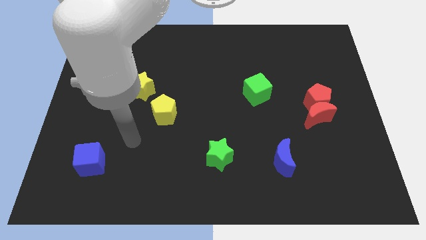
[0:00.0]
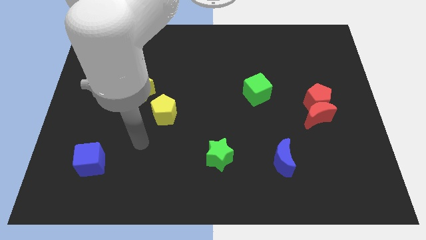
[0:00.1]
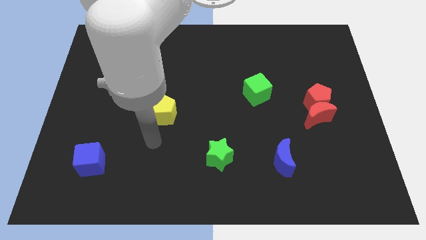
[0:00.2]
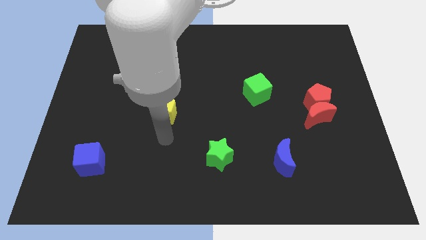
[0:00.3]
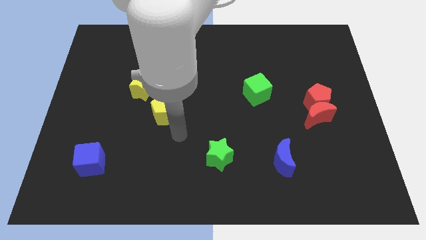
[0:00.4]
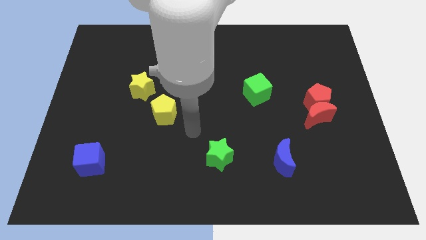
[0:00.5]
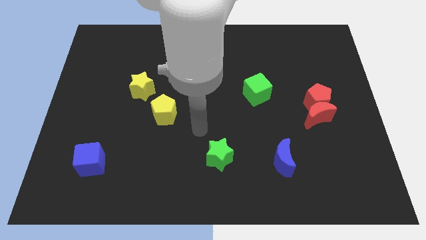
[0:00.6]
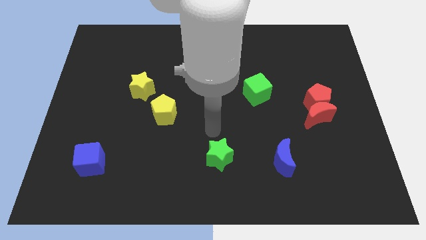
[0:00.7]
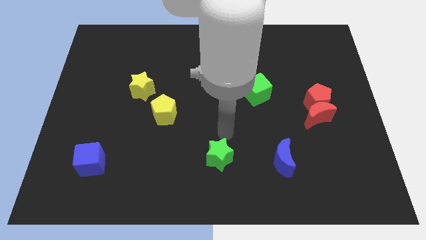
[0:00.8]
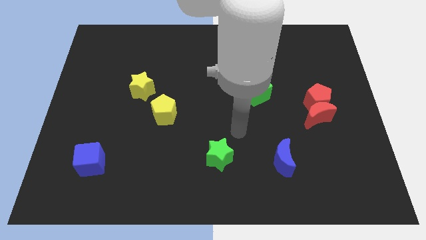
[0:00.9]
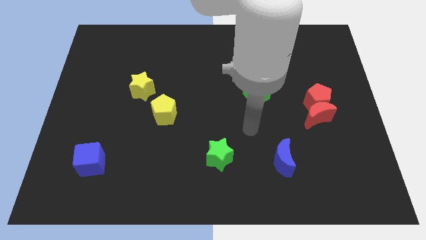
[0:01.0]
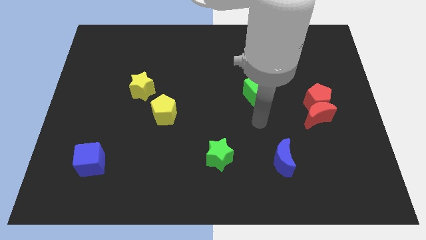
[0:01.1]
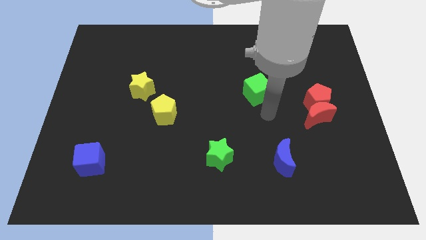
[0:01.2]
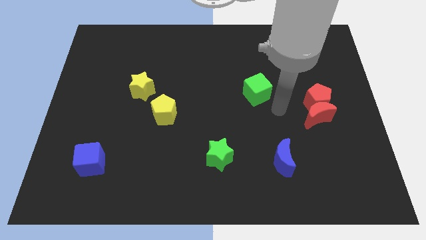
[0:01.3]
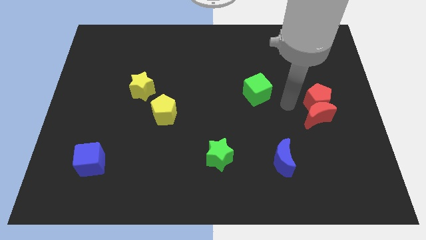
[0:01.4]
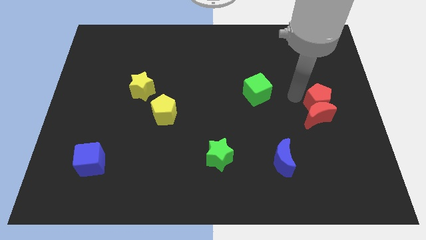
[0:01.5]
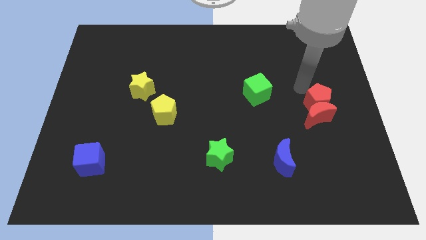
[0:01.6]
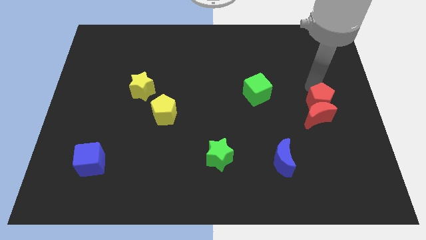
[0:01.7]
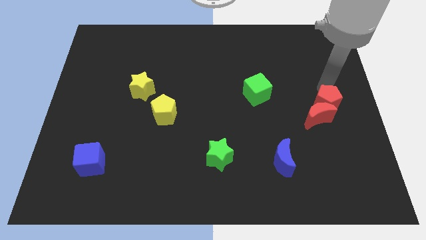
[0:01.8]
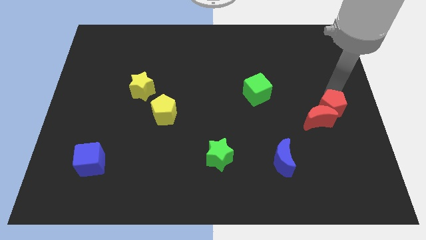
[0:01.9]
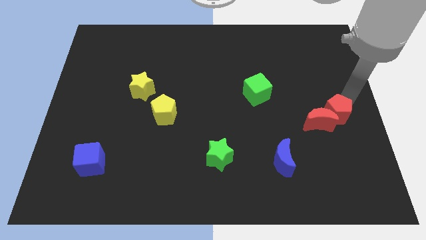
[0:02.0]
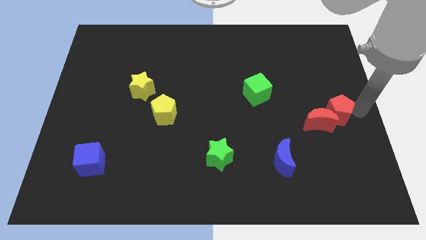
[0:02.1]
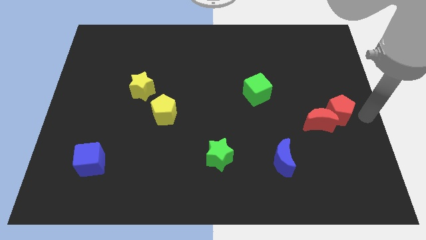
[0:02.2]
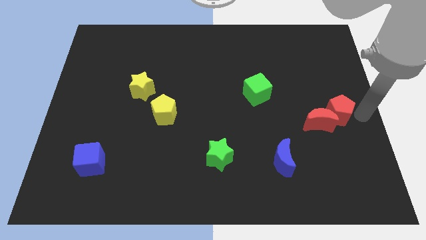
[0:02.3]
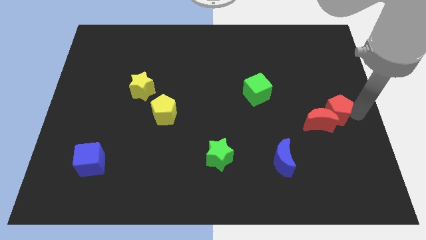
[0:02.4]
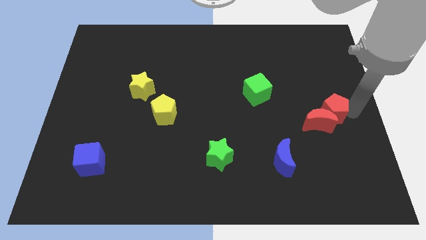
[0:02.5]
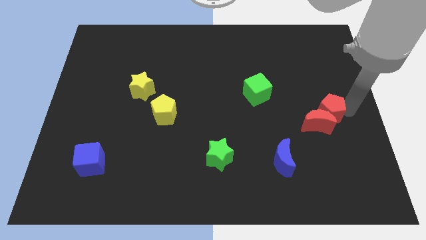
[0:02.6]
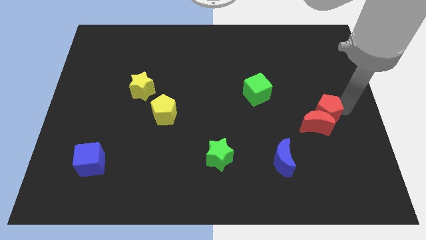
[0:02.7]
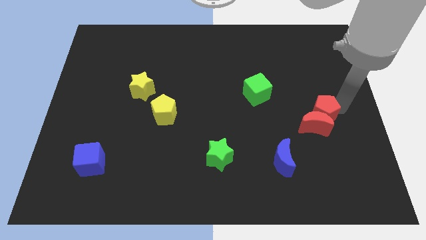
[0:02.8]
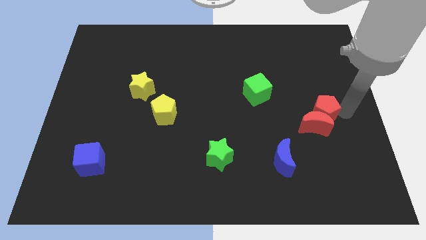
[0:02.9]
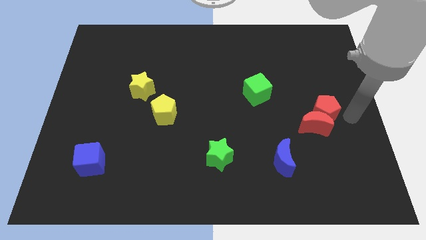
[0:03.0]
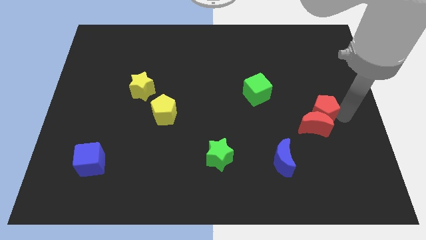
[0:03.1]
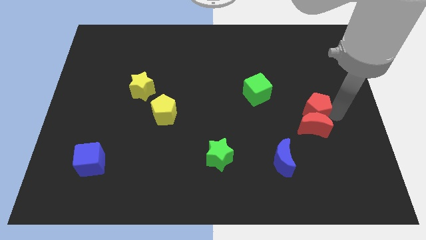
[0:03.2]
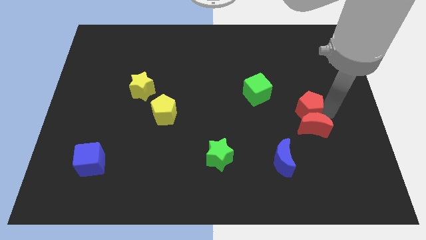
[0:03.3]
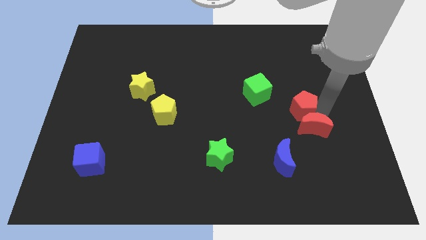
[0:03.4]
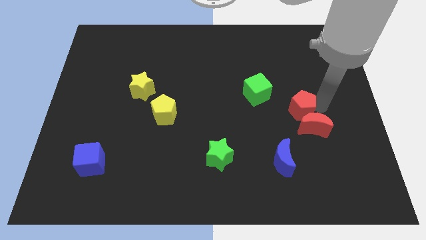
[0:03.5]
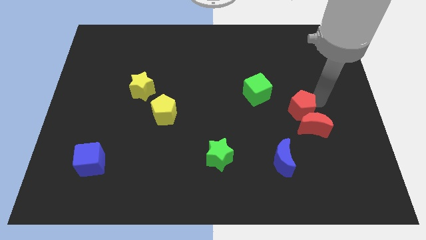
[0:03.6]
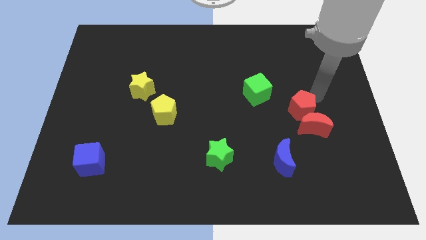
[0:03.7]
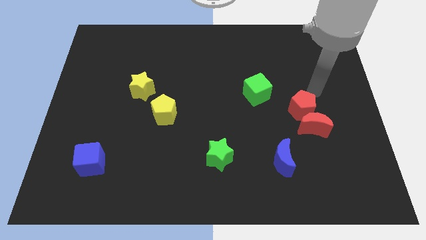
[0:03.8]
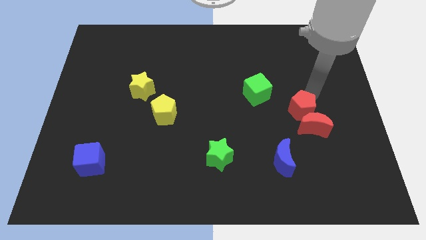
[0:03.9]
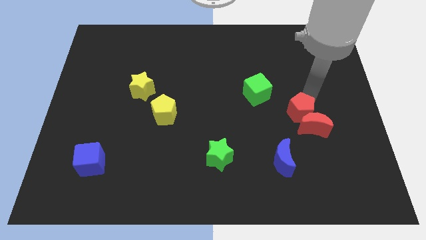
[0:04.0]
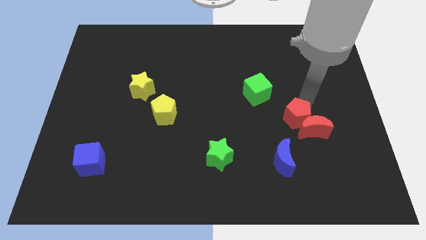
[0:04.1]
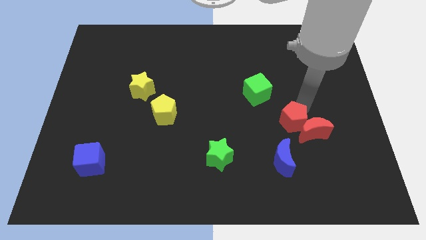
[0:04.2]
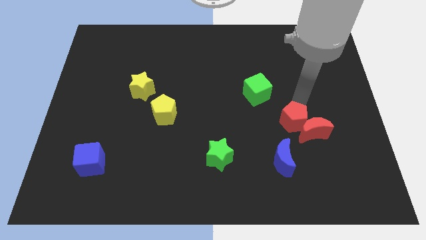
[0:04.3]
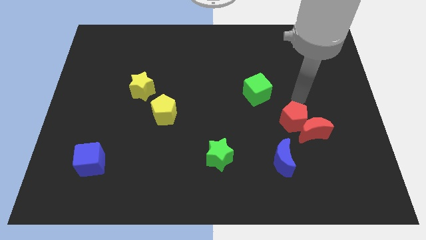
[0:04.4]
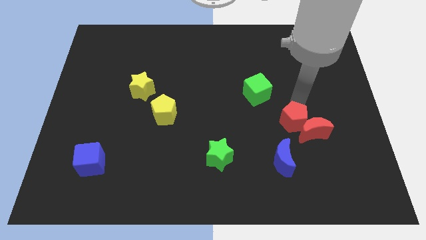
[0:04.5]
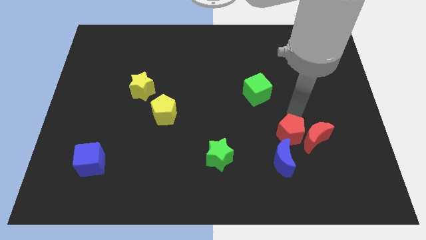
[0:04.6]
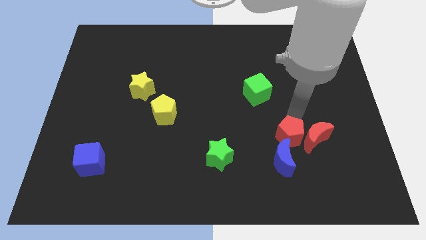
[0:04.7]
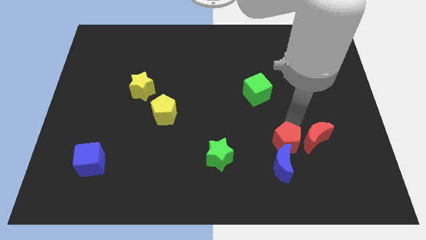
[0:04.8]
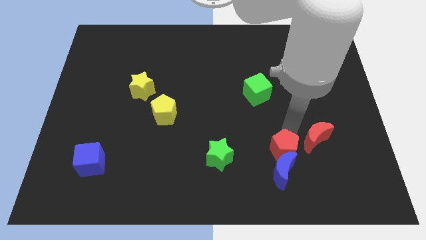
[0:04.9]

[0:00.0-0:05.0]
put the red pentagon next to the blue moon

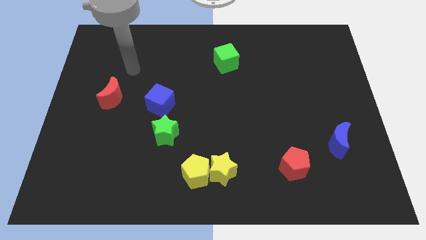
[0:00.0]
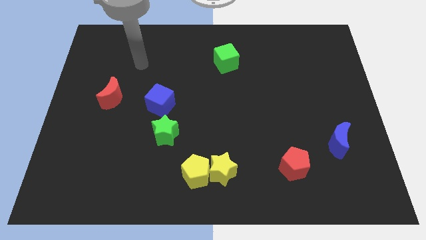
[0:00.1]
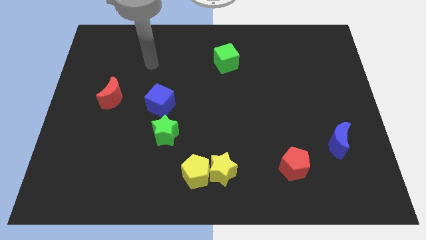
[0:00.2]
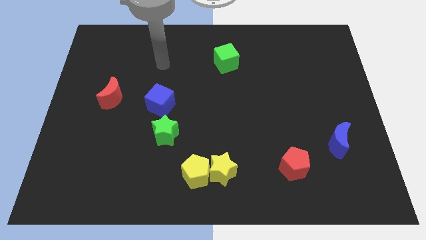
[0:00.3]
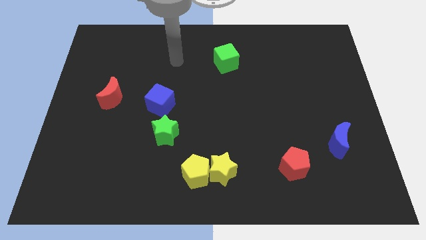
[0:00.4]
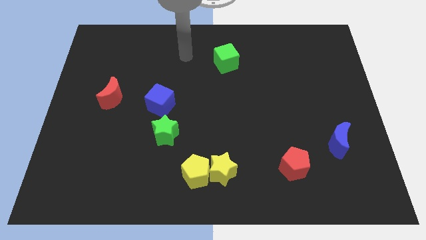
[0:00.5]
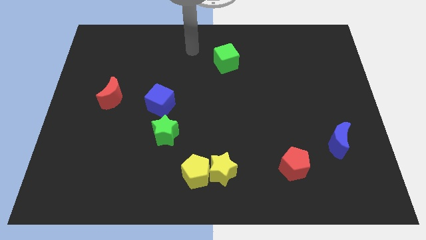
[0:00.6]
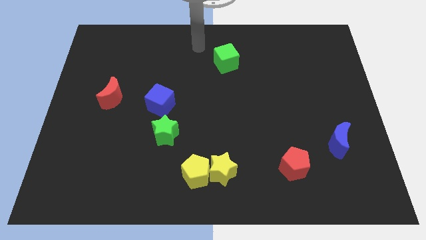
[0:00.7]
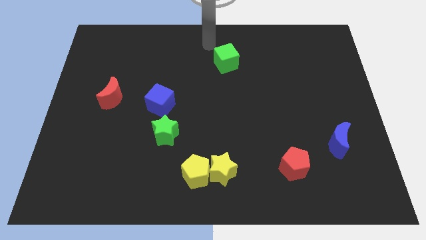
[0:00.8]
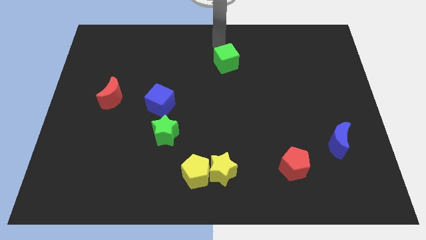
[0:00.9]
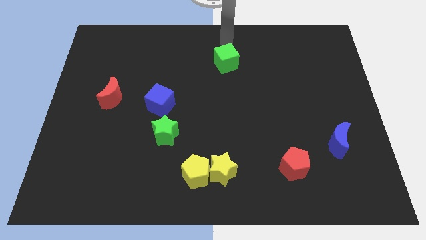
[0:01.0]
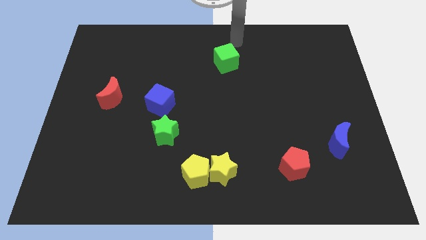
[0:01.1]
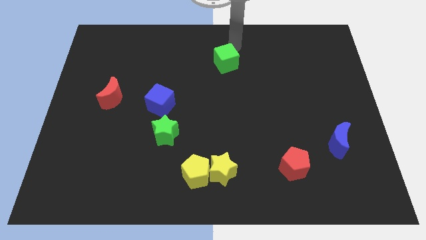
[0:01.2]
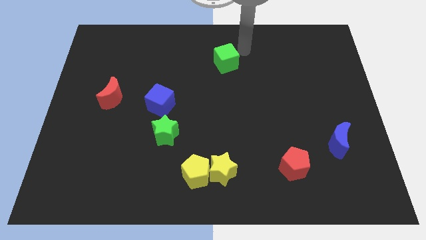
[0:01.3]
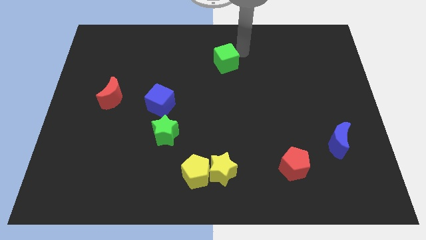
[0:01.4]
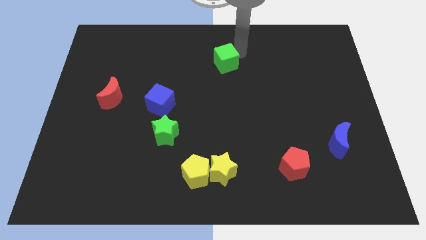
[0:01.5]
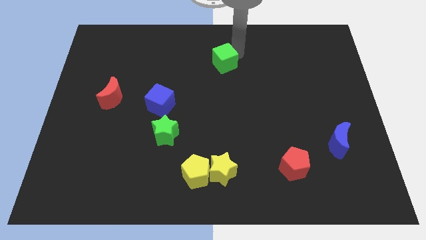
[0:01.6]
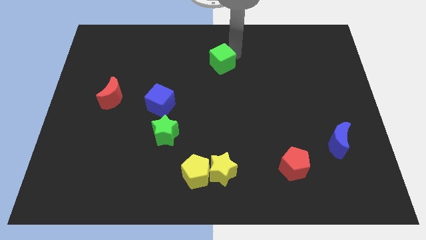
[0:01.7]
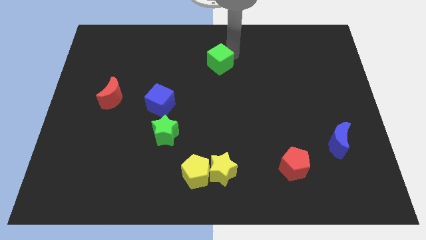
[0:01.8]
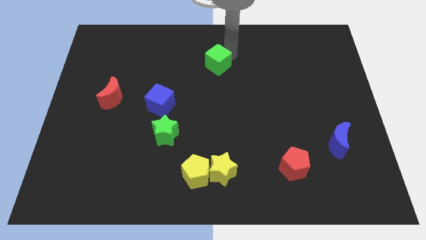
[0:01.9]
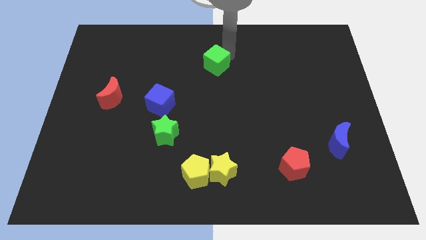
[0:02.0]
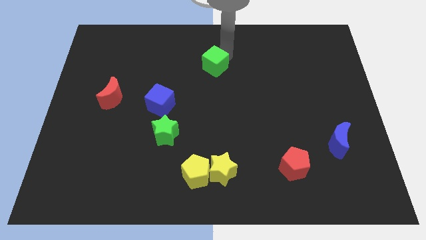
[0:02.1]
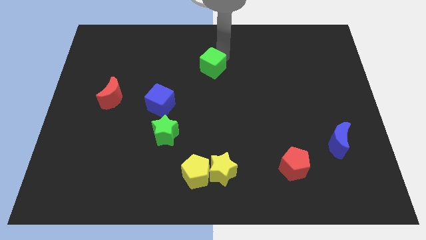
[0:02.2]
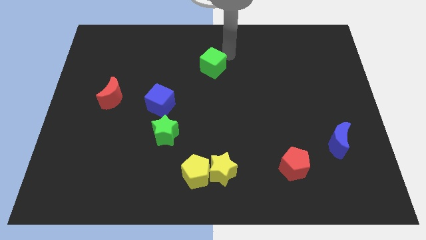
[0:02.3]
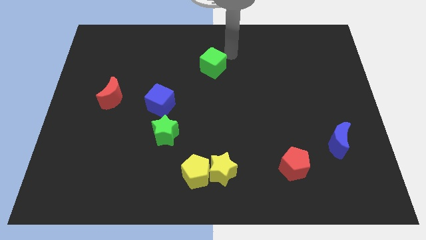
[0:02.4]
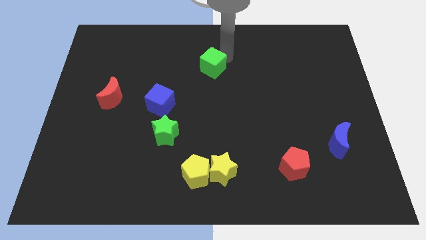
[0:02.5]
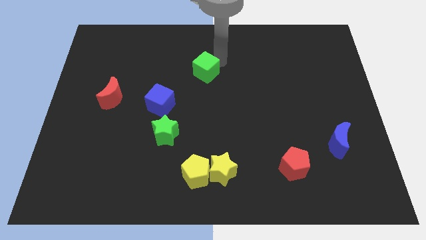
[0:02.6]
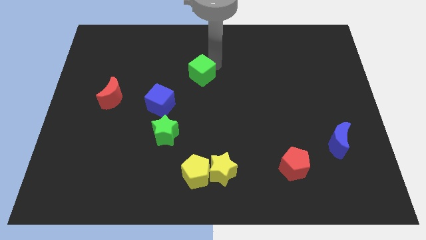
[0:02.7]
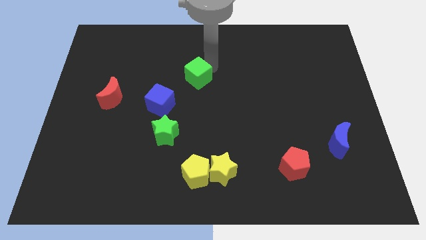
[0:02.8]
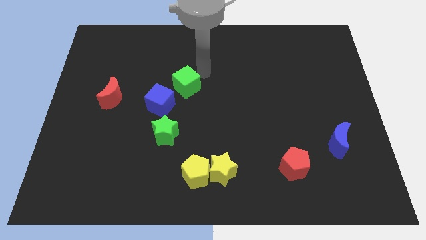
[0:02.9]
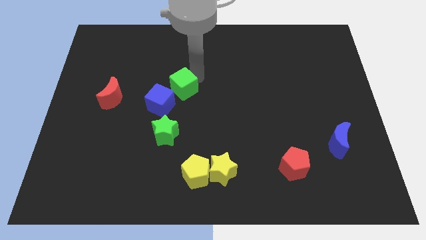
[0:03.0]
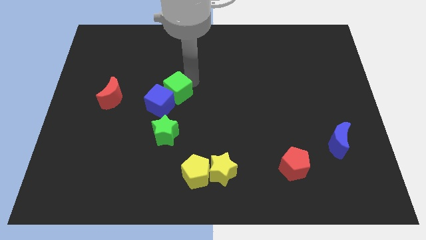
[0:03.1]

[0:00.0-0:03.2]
slide the green cube to the blue cube
